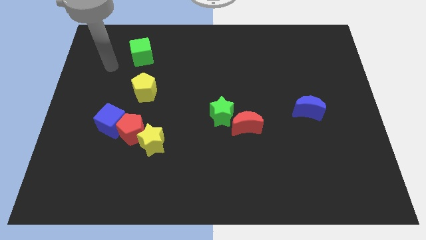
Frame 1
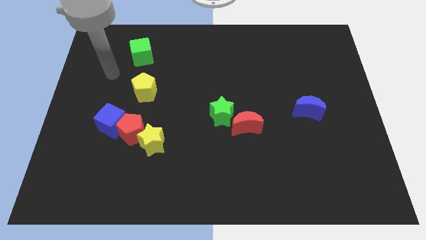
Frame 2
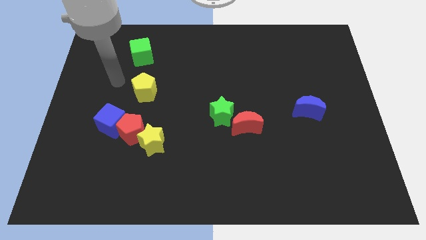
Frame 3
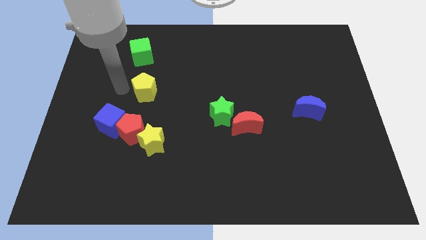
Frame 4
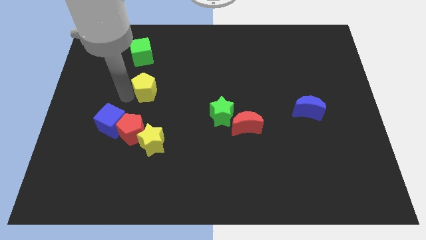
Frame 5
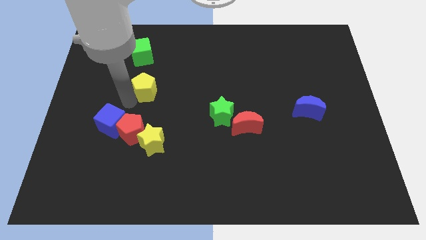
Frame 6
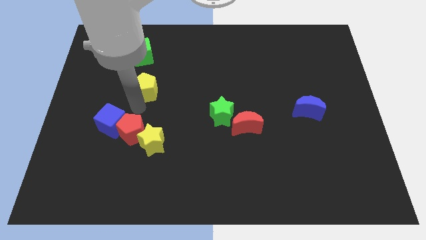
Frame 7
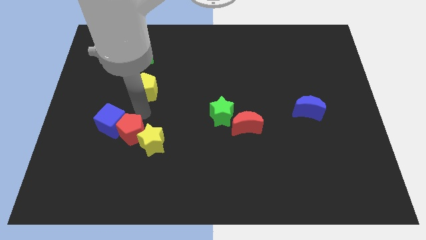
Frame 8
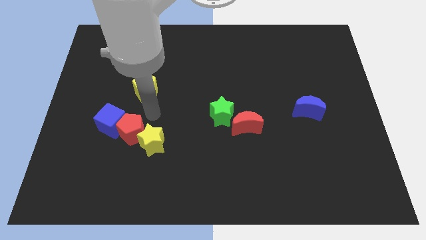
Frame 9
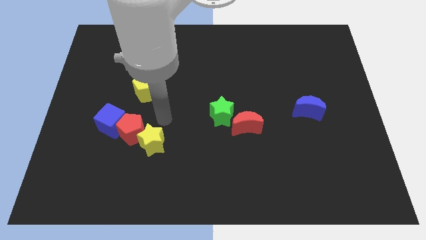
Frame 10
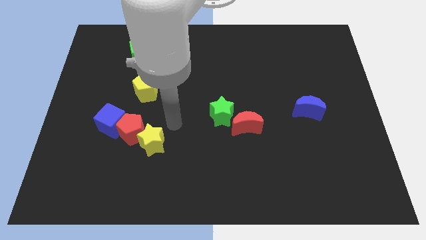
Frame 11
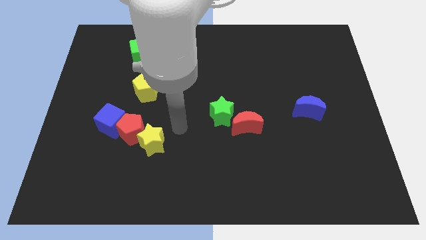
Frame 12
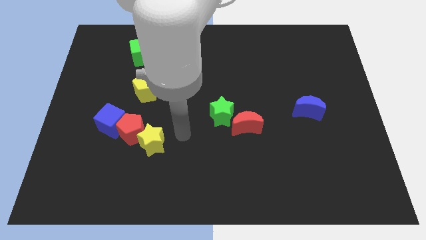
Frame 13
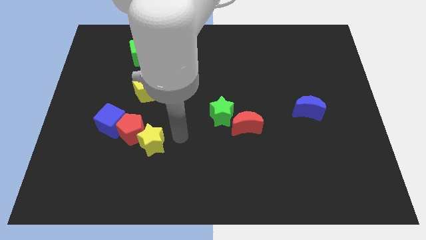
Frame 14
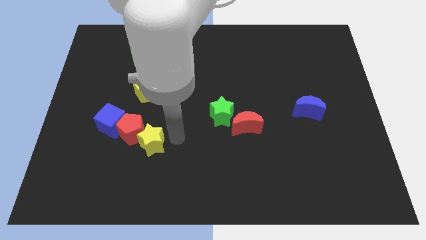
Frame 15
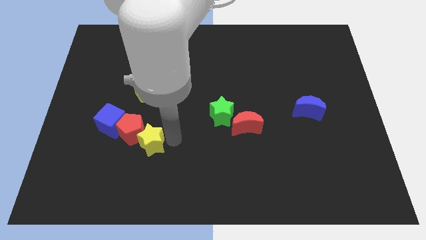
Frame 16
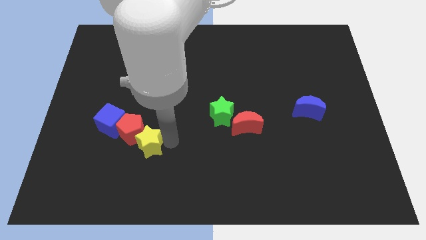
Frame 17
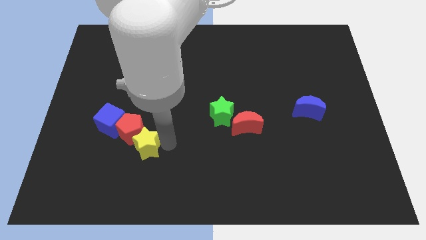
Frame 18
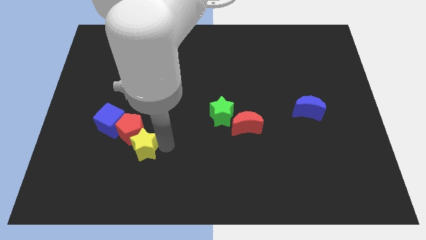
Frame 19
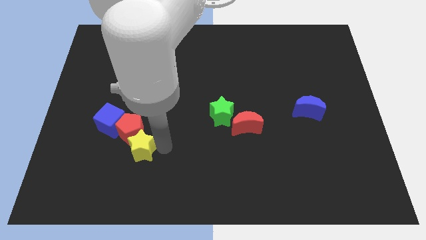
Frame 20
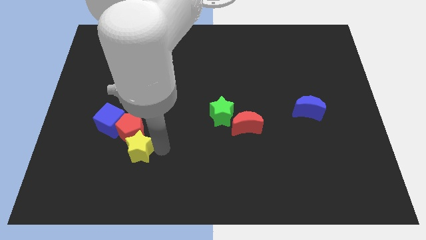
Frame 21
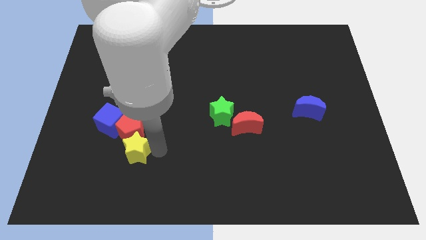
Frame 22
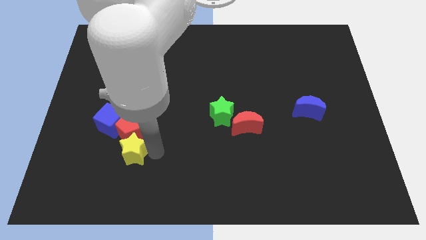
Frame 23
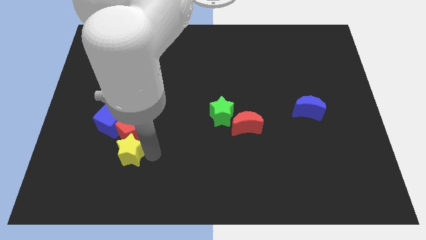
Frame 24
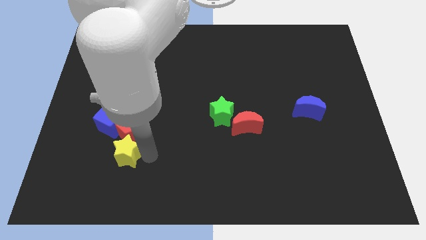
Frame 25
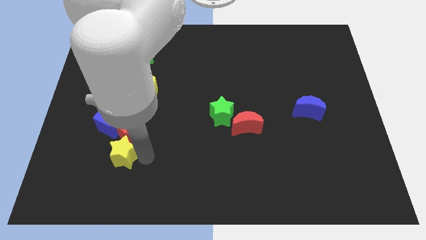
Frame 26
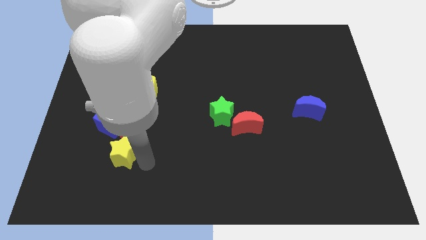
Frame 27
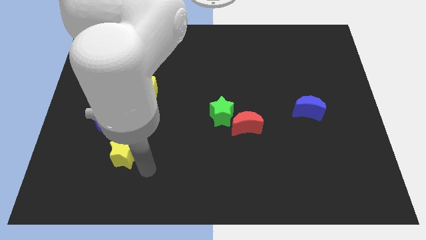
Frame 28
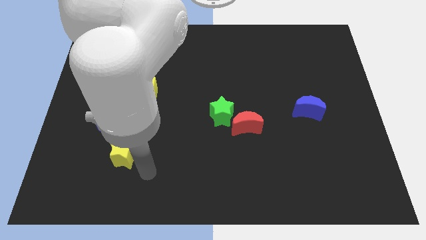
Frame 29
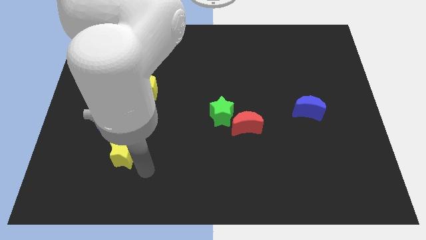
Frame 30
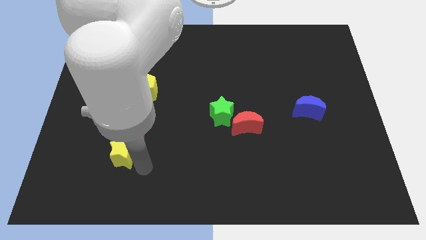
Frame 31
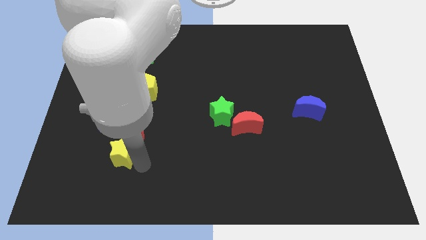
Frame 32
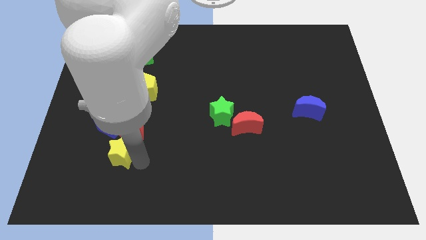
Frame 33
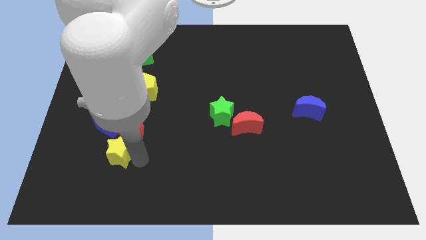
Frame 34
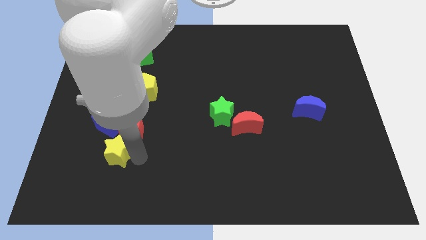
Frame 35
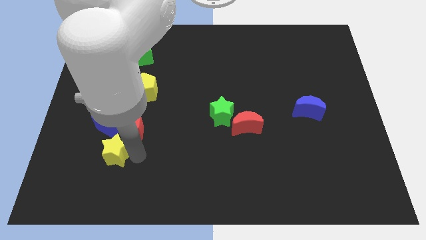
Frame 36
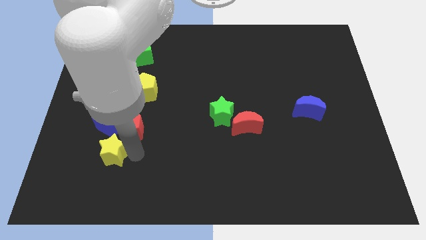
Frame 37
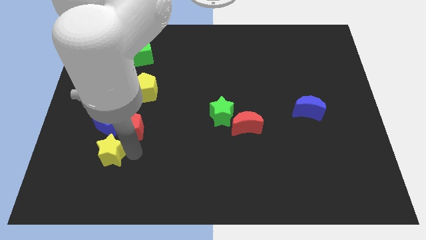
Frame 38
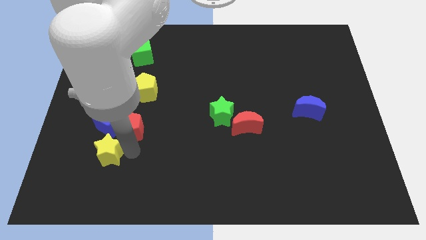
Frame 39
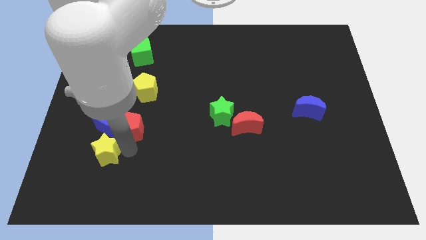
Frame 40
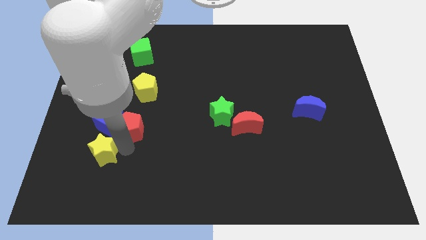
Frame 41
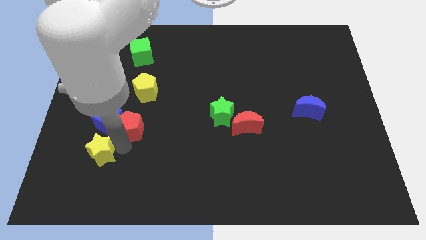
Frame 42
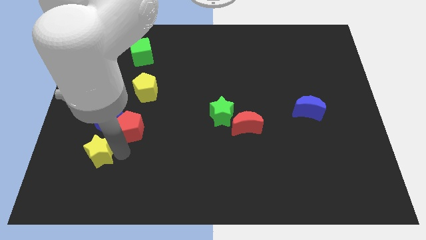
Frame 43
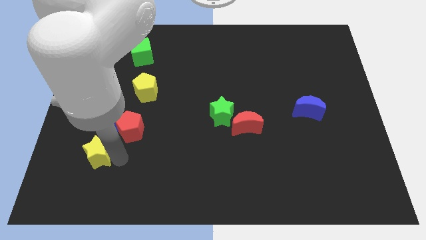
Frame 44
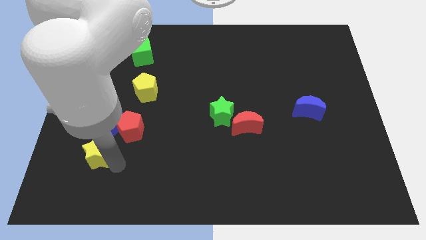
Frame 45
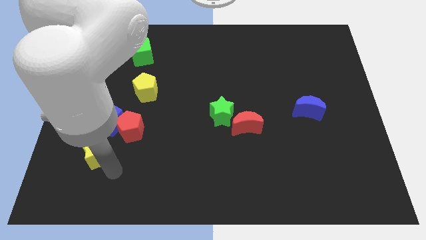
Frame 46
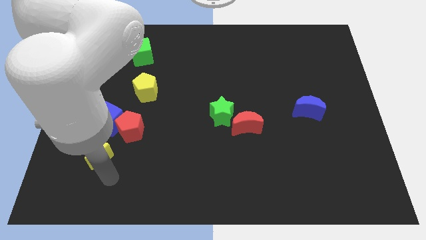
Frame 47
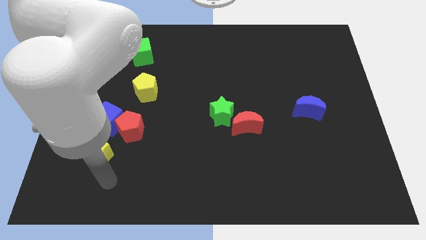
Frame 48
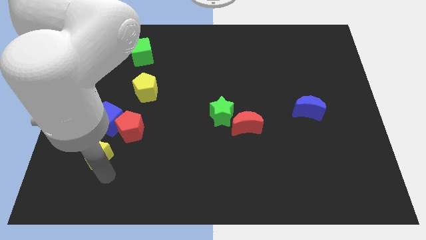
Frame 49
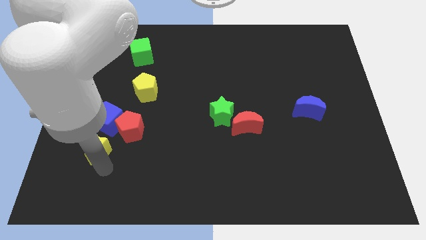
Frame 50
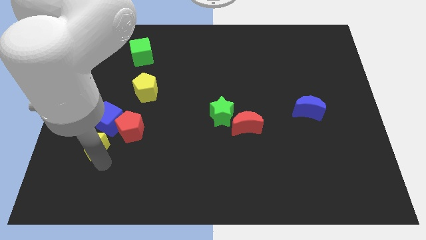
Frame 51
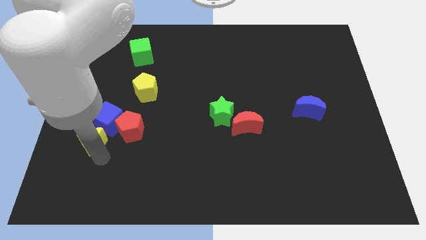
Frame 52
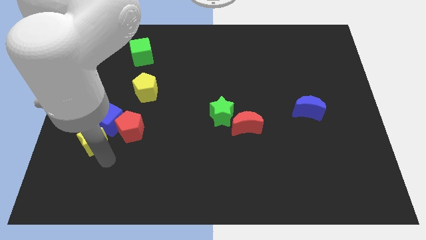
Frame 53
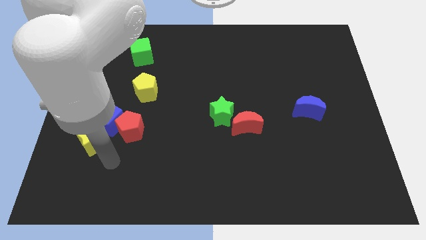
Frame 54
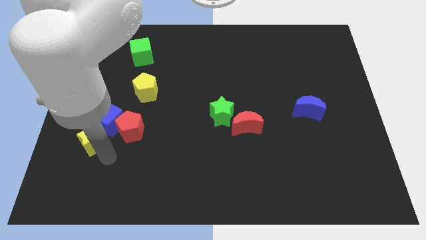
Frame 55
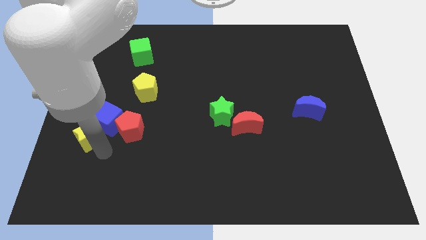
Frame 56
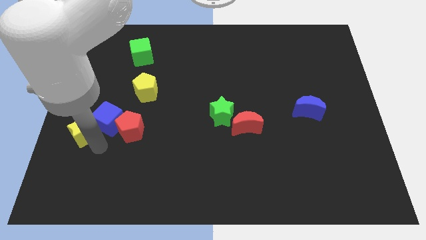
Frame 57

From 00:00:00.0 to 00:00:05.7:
slide the yellow star to the left side of the board
